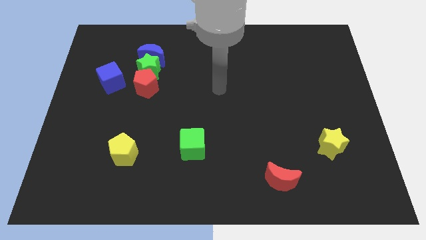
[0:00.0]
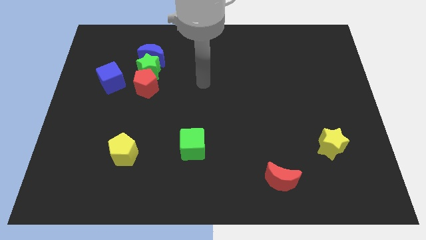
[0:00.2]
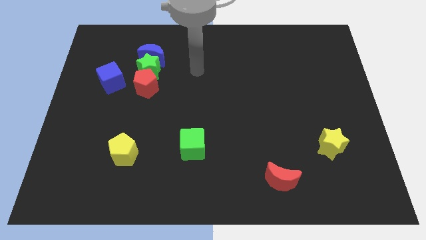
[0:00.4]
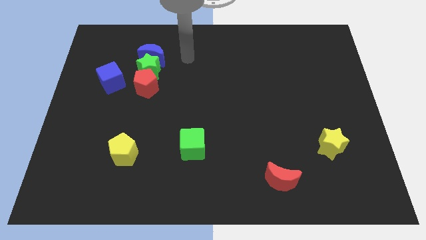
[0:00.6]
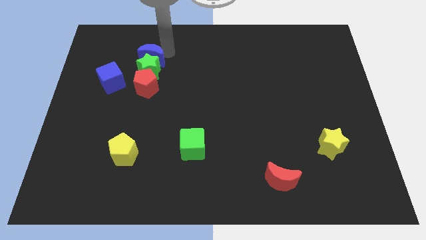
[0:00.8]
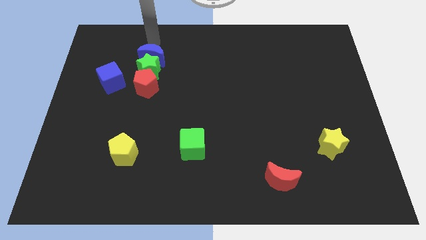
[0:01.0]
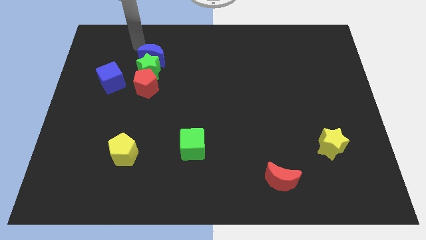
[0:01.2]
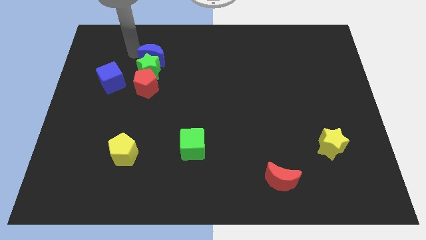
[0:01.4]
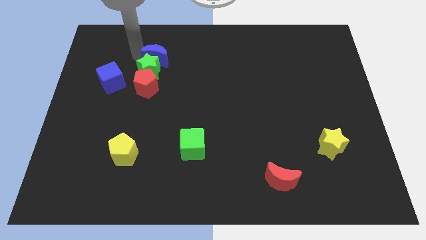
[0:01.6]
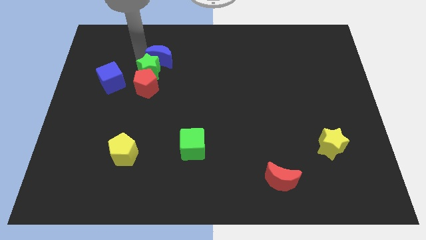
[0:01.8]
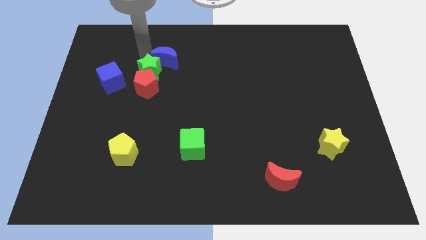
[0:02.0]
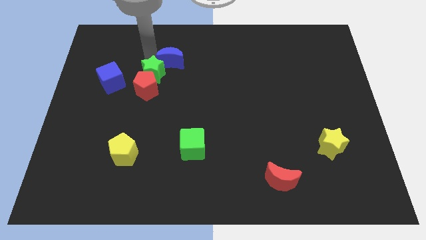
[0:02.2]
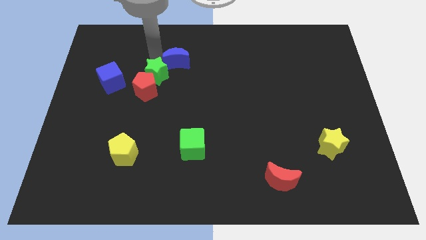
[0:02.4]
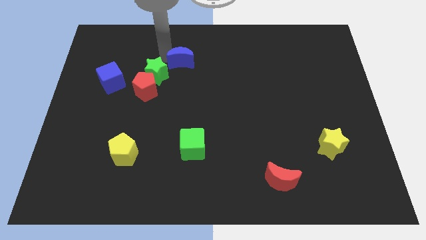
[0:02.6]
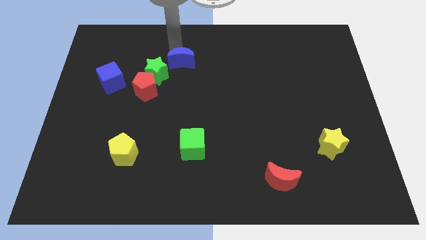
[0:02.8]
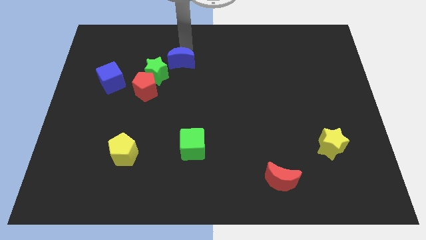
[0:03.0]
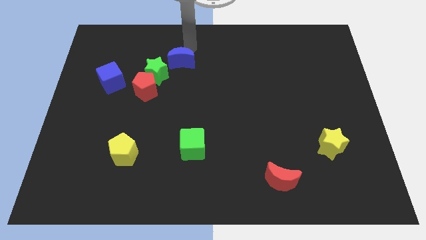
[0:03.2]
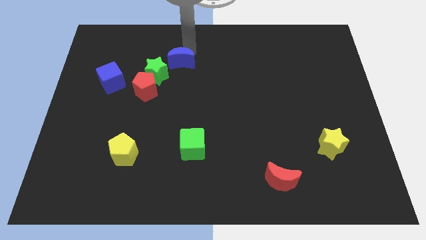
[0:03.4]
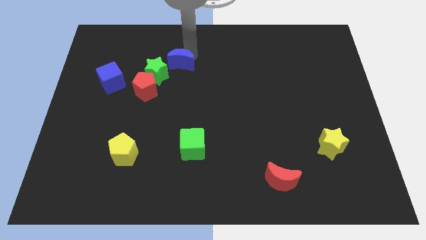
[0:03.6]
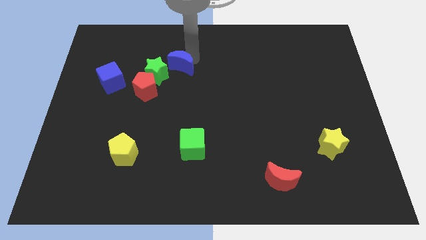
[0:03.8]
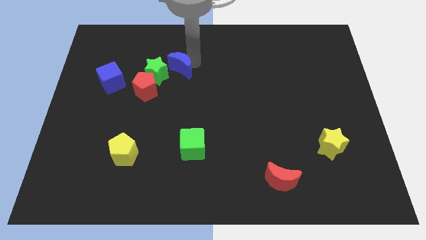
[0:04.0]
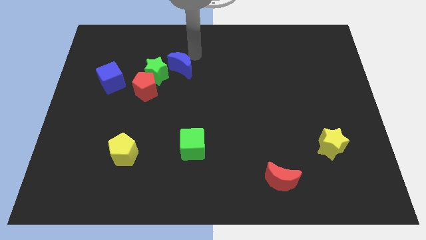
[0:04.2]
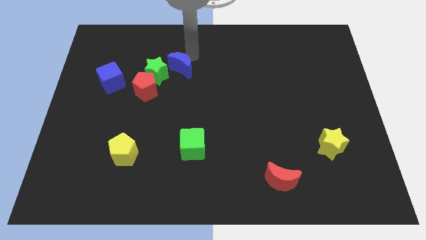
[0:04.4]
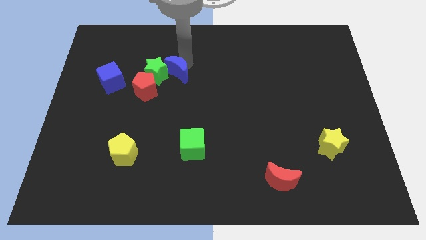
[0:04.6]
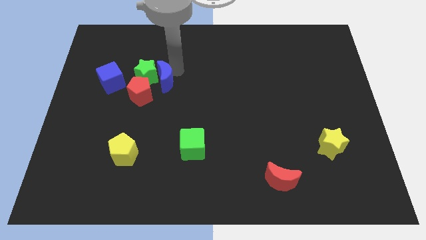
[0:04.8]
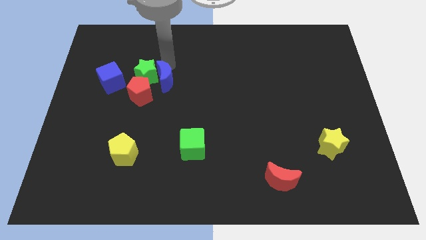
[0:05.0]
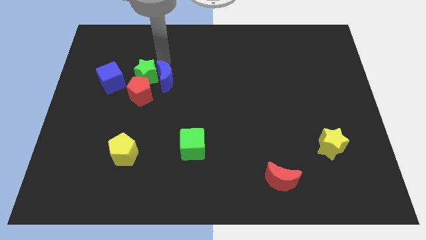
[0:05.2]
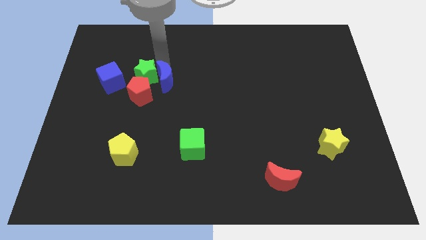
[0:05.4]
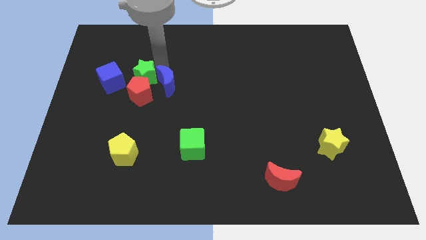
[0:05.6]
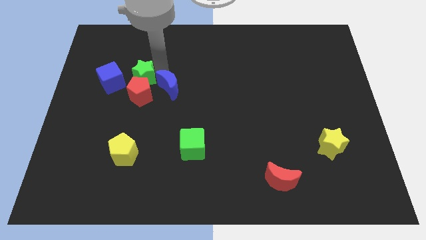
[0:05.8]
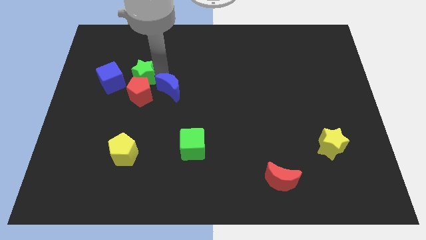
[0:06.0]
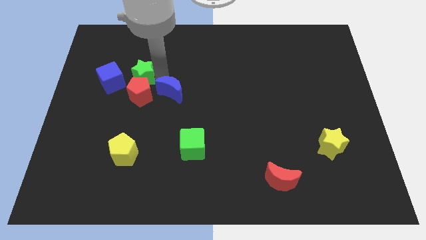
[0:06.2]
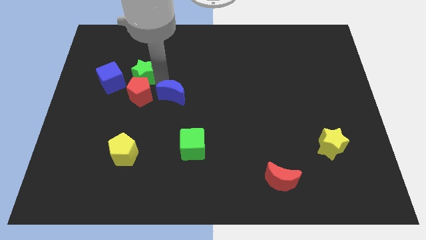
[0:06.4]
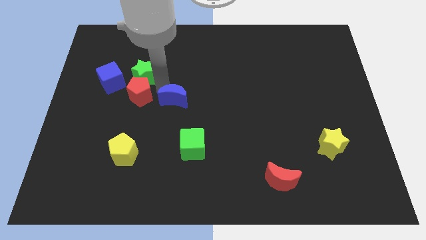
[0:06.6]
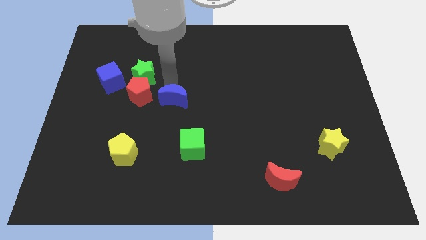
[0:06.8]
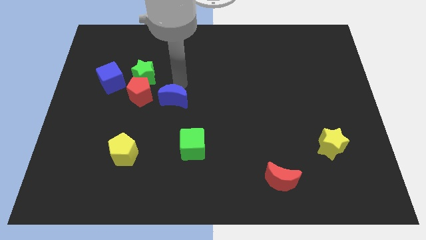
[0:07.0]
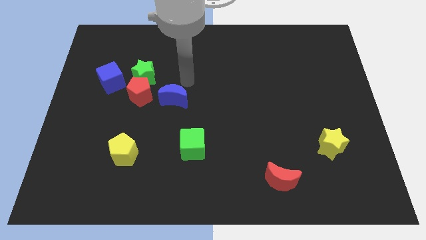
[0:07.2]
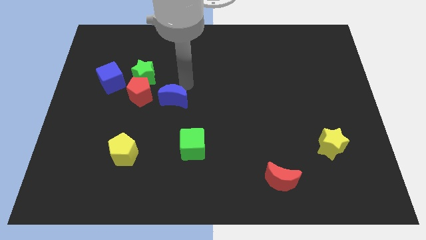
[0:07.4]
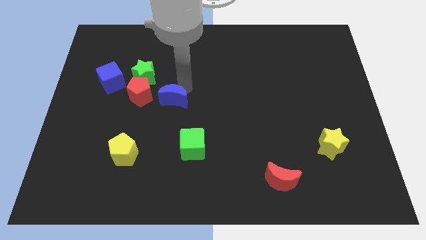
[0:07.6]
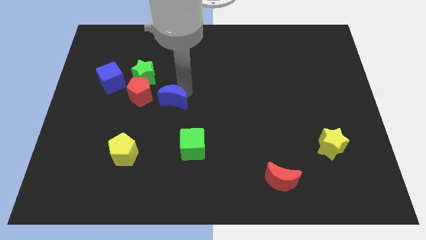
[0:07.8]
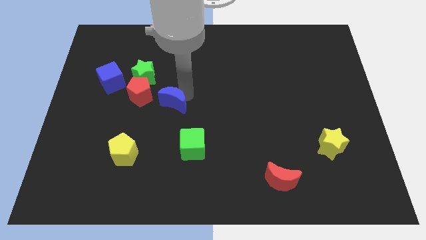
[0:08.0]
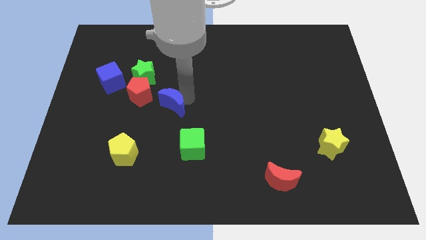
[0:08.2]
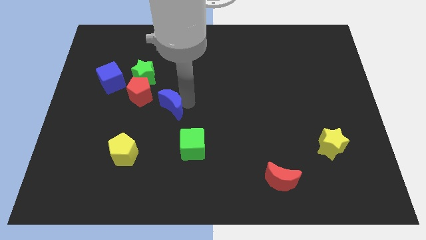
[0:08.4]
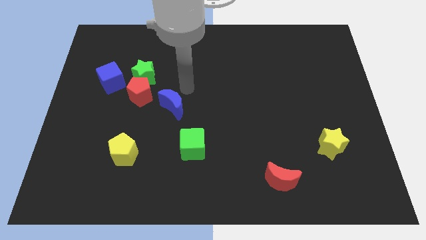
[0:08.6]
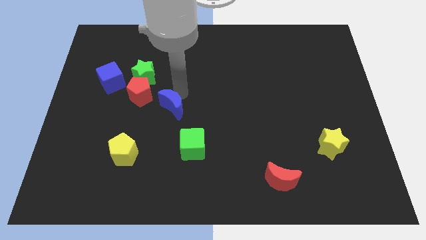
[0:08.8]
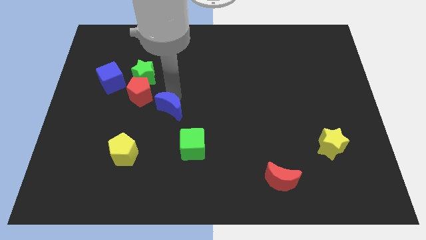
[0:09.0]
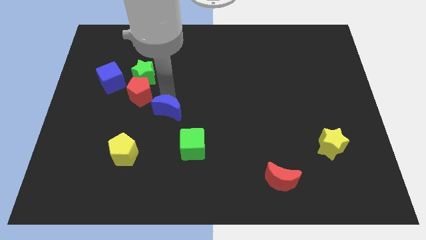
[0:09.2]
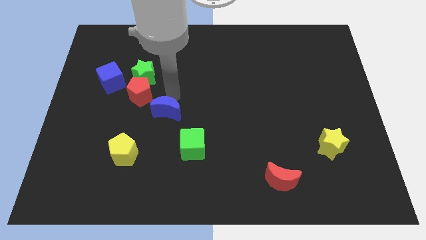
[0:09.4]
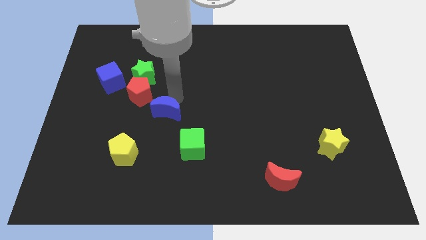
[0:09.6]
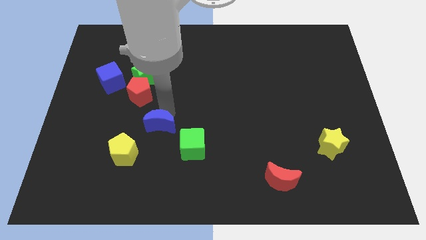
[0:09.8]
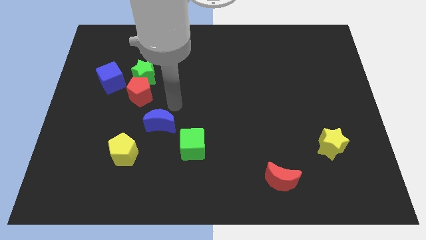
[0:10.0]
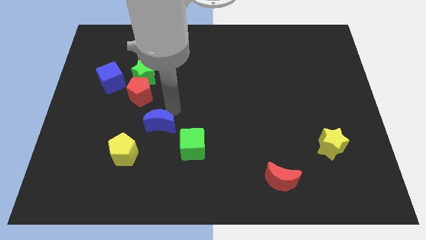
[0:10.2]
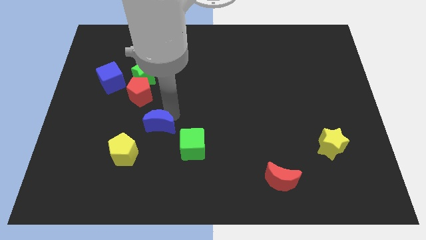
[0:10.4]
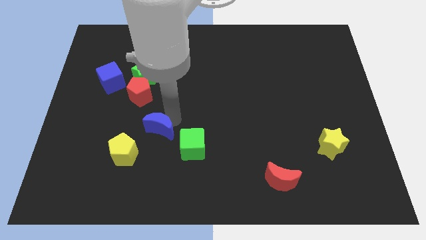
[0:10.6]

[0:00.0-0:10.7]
move the blue moon to the left side of the green cube

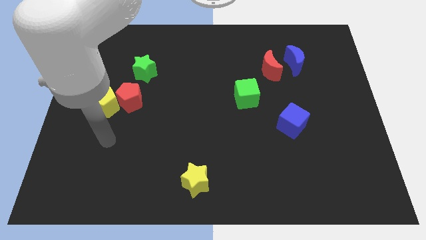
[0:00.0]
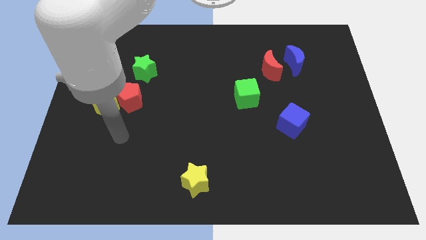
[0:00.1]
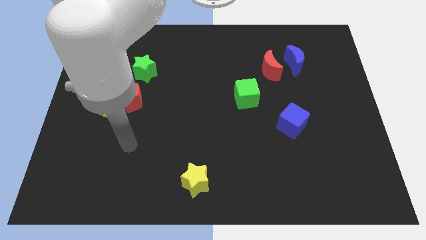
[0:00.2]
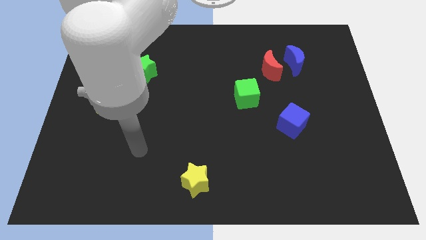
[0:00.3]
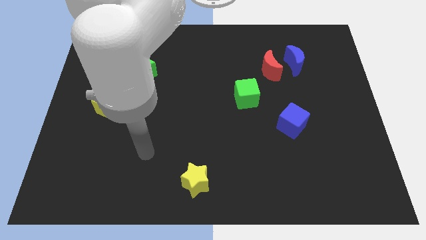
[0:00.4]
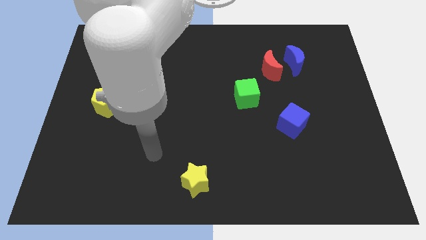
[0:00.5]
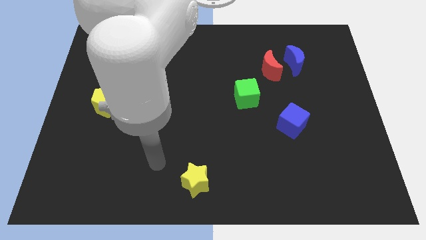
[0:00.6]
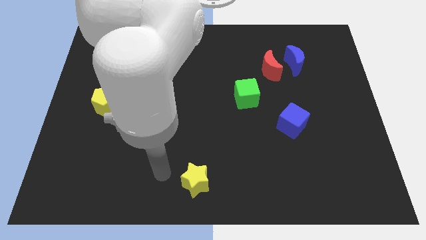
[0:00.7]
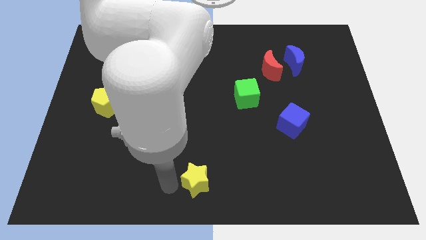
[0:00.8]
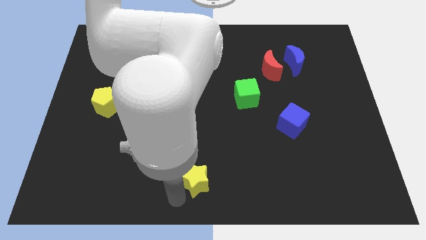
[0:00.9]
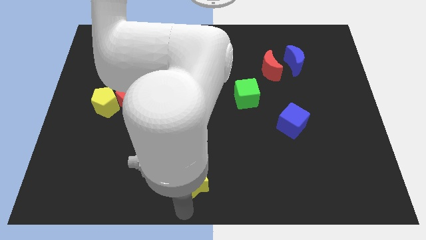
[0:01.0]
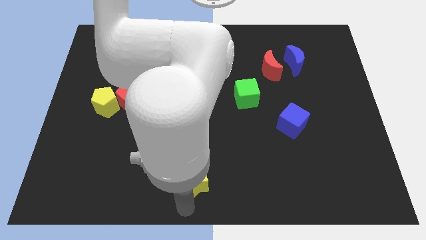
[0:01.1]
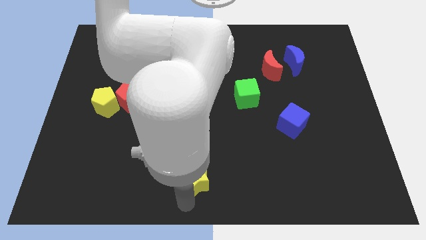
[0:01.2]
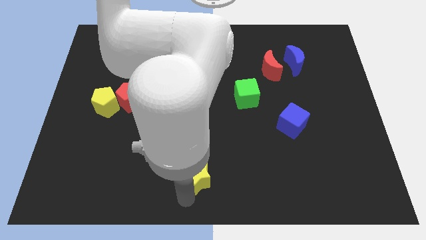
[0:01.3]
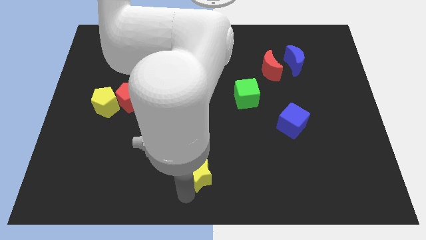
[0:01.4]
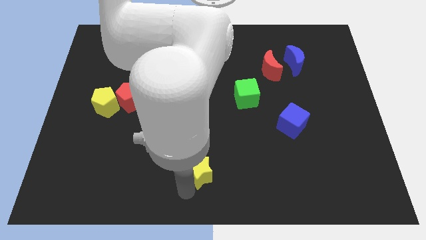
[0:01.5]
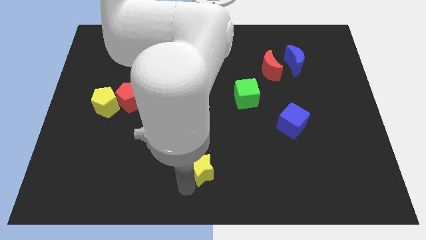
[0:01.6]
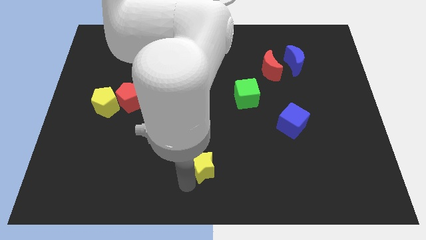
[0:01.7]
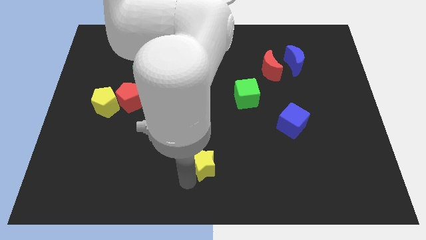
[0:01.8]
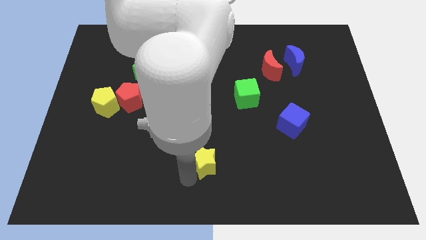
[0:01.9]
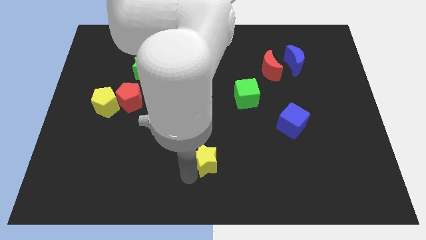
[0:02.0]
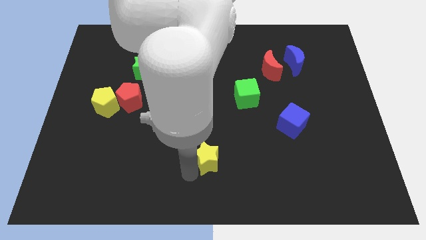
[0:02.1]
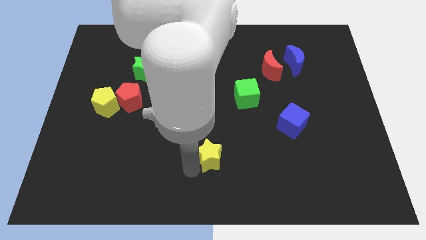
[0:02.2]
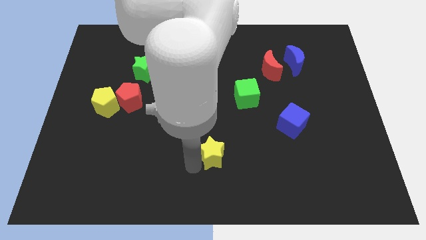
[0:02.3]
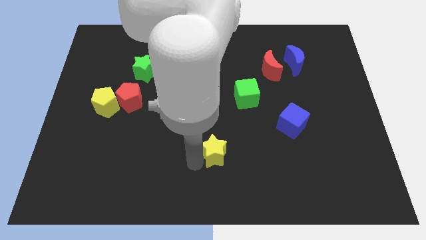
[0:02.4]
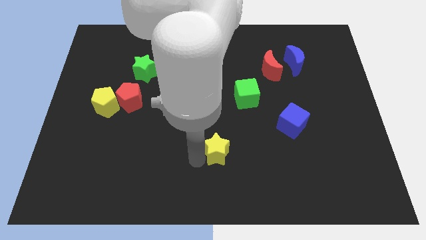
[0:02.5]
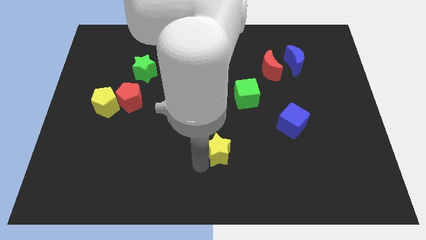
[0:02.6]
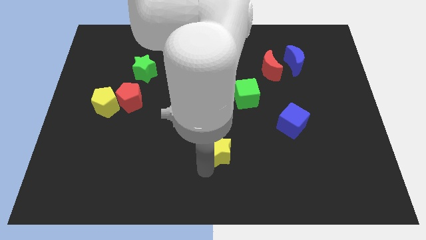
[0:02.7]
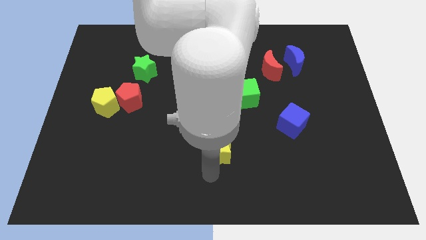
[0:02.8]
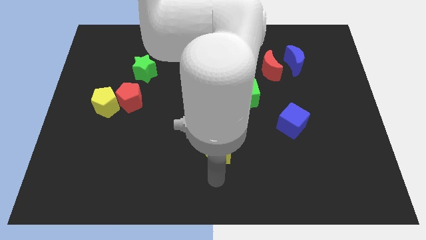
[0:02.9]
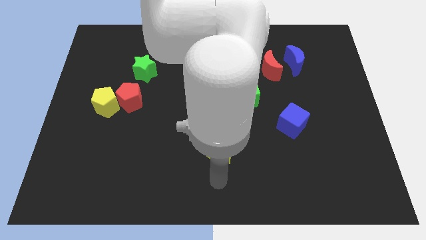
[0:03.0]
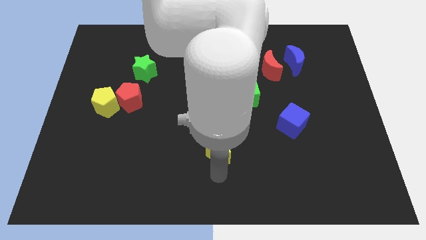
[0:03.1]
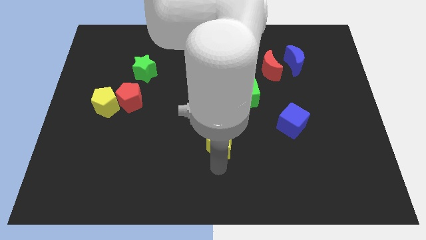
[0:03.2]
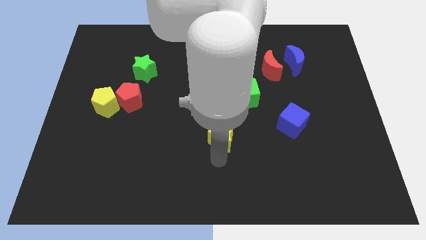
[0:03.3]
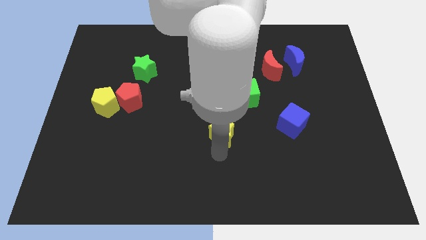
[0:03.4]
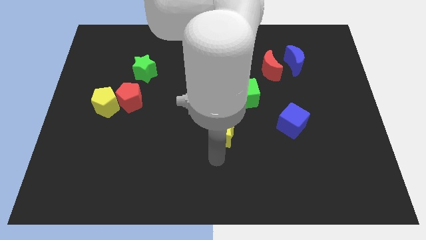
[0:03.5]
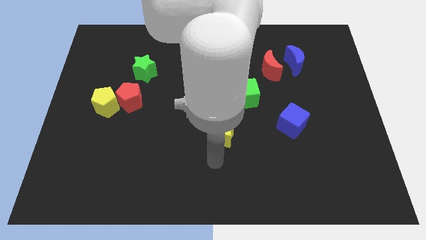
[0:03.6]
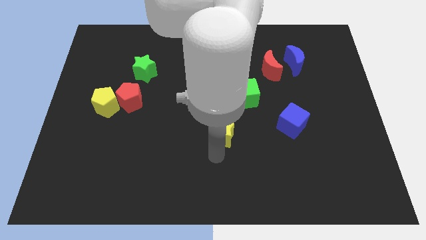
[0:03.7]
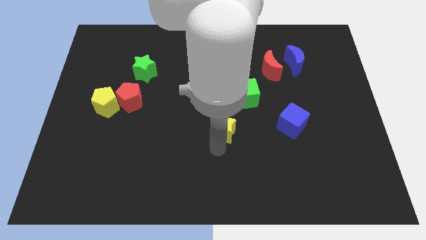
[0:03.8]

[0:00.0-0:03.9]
push the yellow star to the bottom left of the green cube
